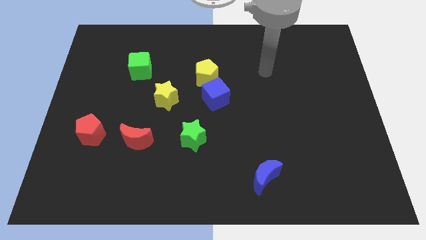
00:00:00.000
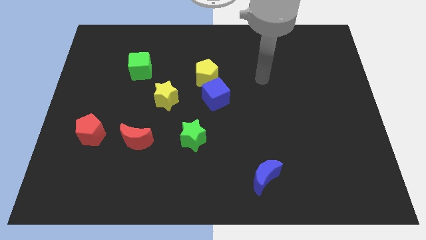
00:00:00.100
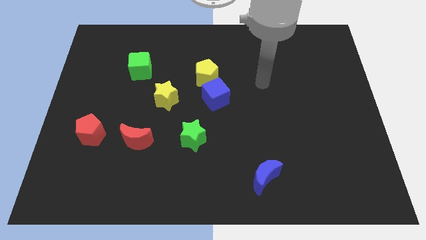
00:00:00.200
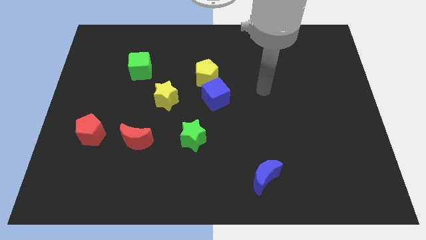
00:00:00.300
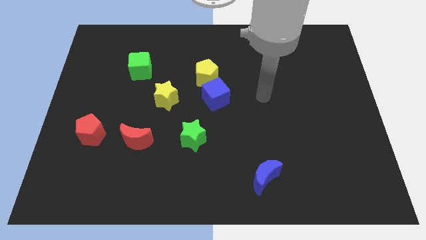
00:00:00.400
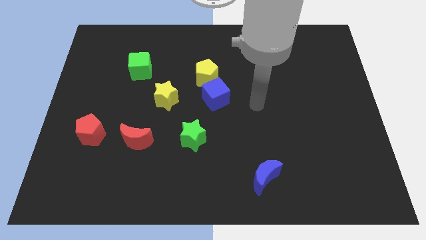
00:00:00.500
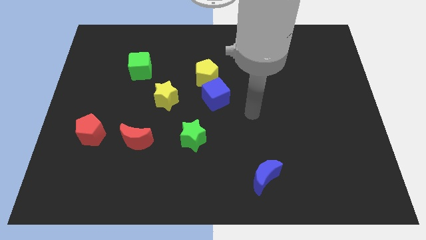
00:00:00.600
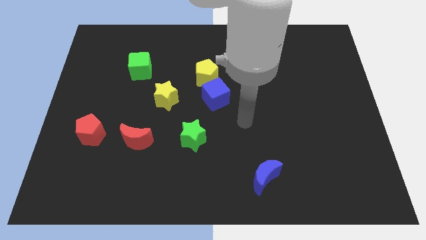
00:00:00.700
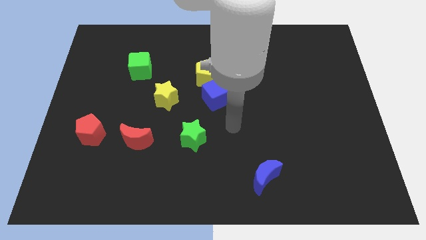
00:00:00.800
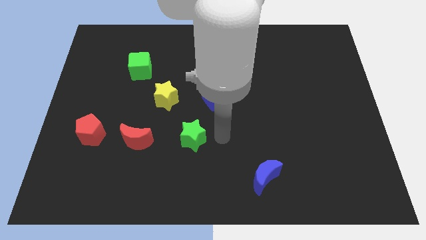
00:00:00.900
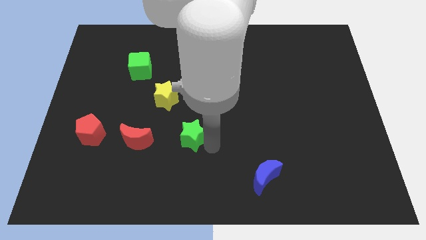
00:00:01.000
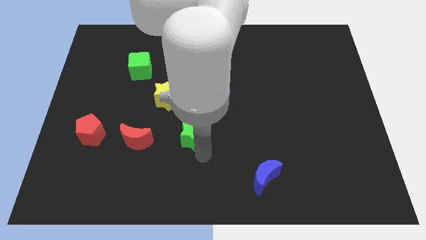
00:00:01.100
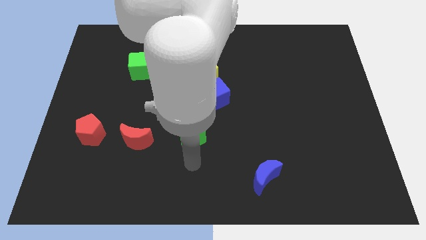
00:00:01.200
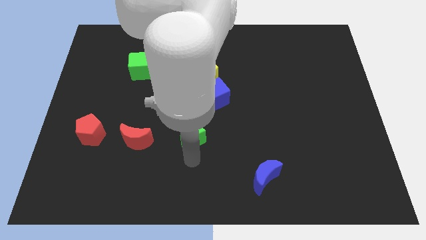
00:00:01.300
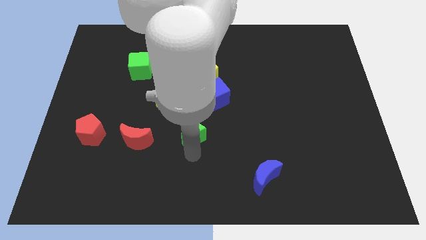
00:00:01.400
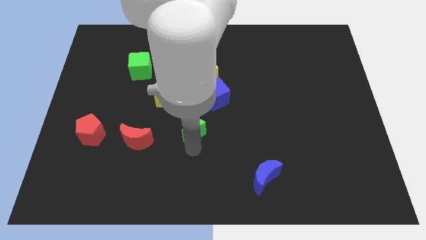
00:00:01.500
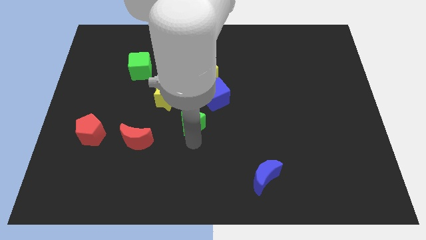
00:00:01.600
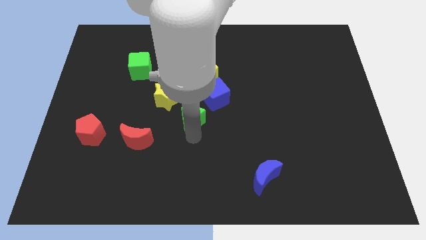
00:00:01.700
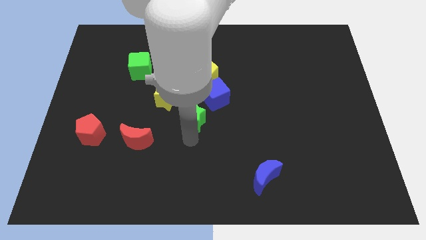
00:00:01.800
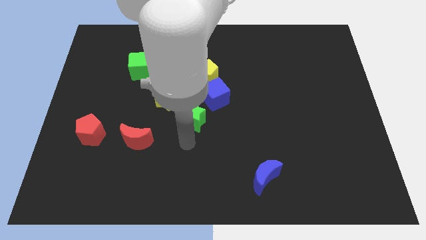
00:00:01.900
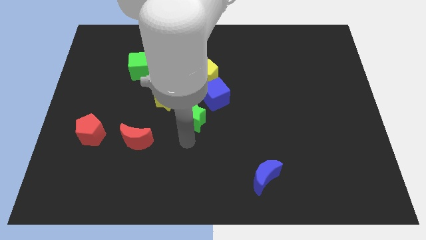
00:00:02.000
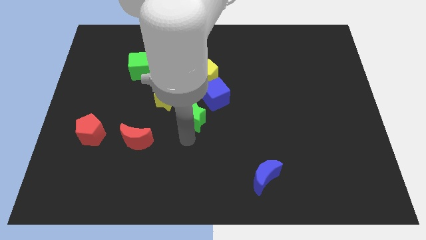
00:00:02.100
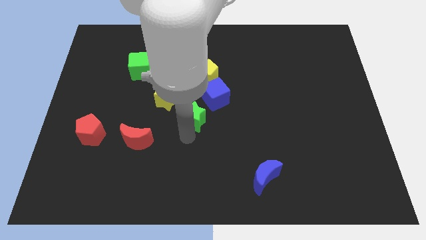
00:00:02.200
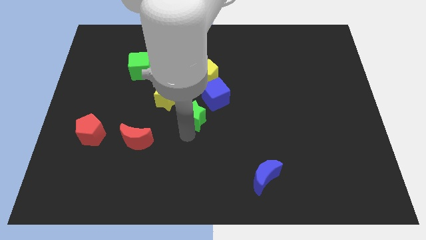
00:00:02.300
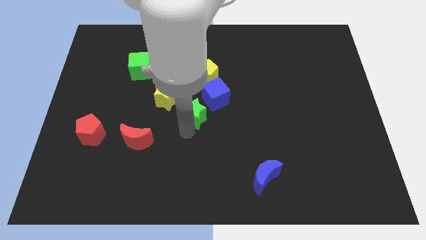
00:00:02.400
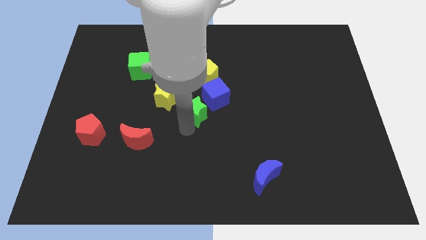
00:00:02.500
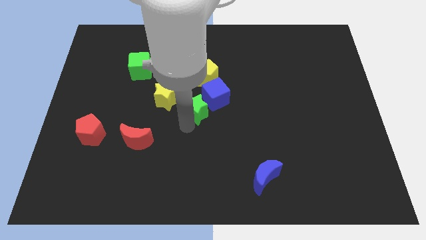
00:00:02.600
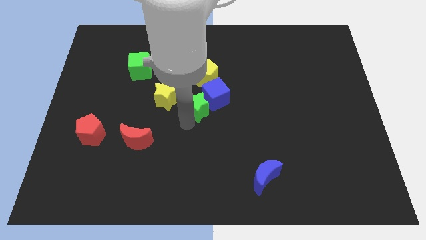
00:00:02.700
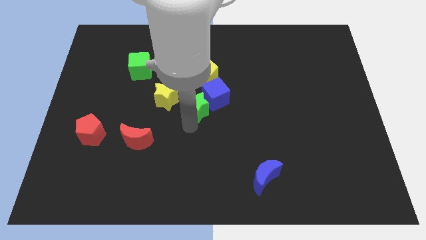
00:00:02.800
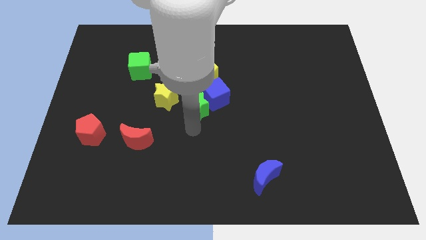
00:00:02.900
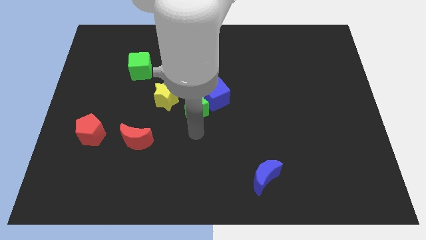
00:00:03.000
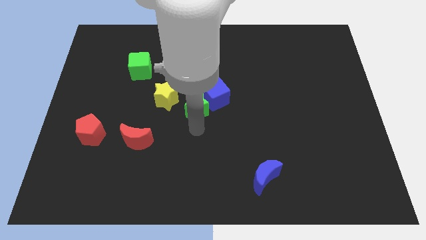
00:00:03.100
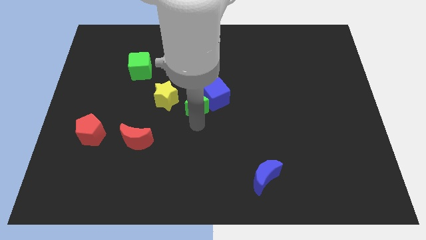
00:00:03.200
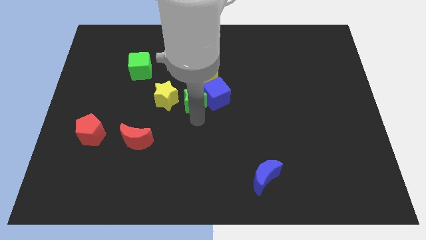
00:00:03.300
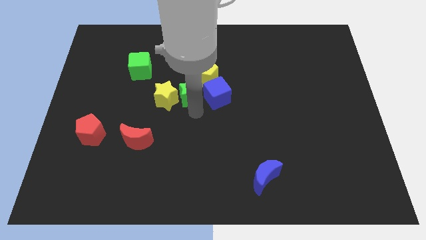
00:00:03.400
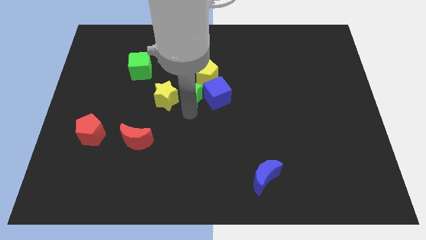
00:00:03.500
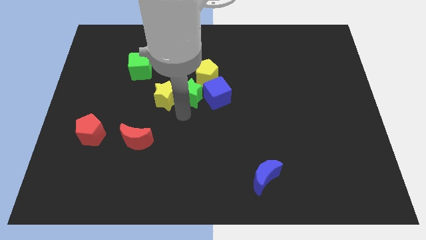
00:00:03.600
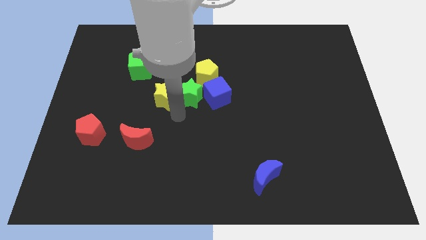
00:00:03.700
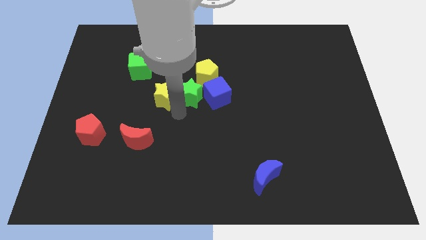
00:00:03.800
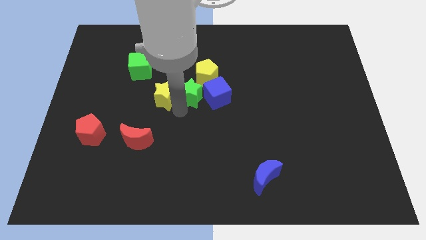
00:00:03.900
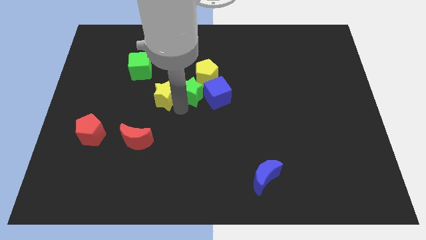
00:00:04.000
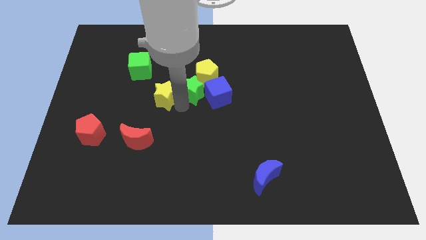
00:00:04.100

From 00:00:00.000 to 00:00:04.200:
slide the green star next to the yellow pentagon

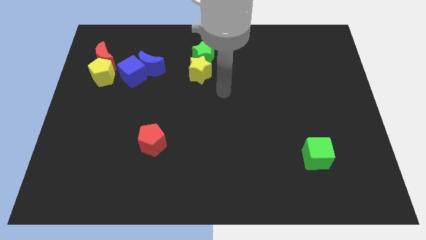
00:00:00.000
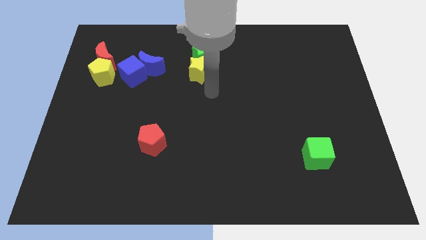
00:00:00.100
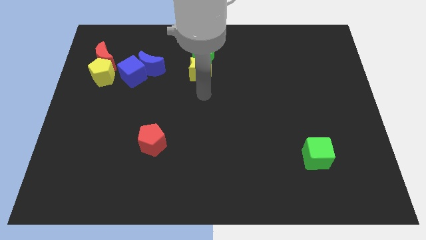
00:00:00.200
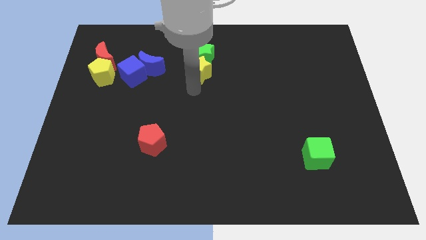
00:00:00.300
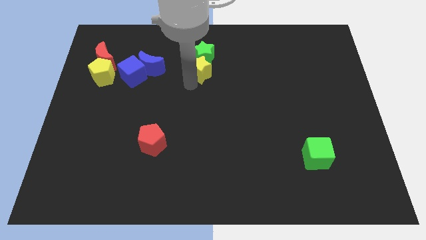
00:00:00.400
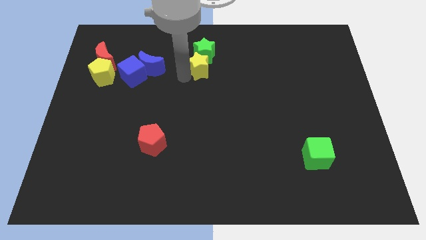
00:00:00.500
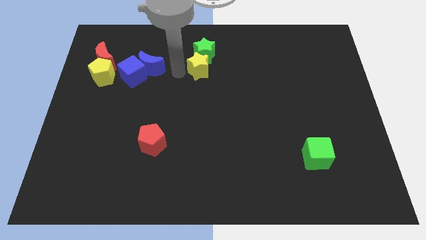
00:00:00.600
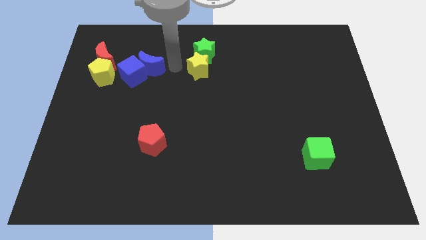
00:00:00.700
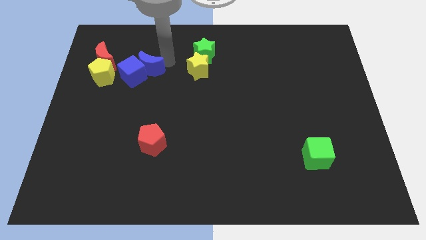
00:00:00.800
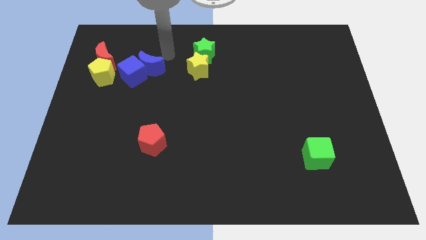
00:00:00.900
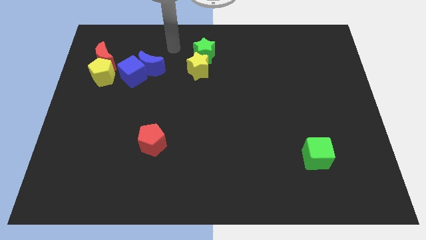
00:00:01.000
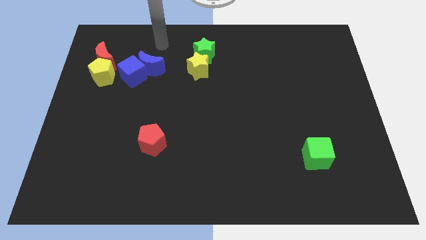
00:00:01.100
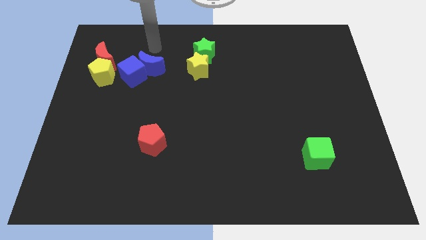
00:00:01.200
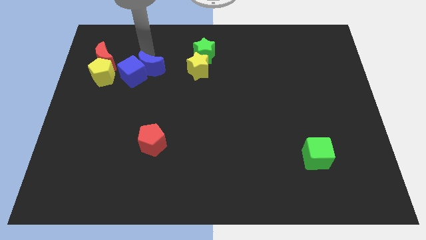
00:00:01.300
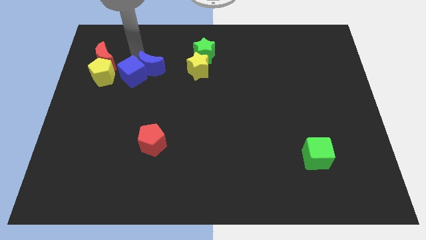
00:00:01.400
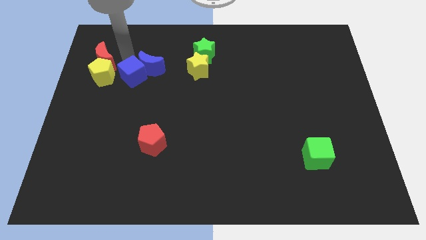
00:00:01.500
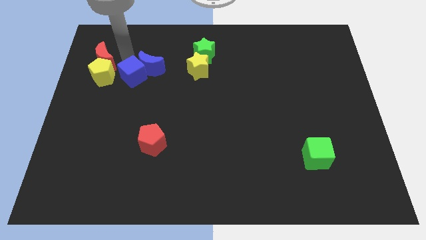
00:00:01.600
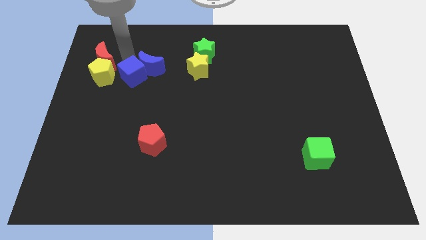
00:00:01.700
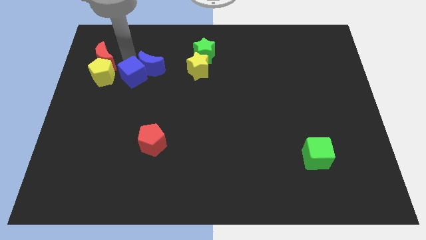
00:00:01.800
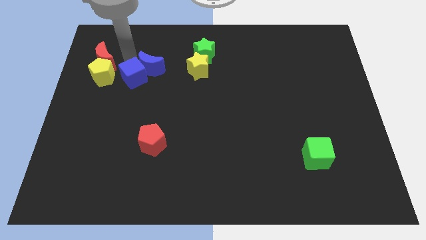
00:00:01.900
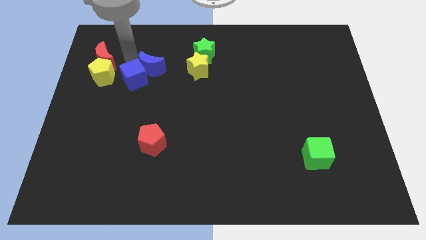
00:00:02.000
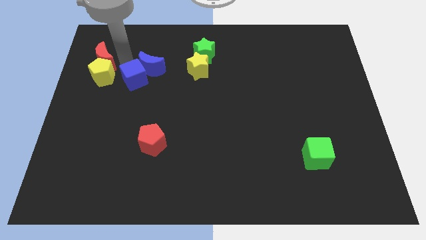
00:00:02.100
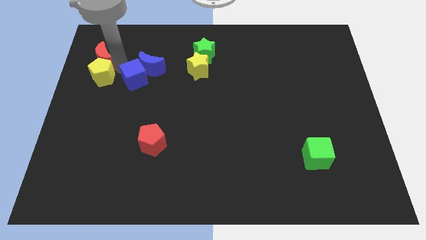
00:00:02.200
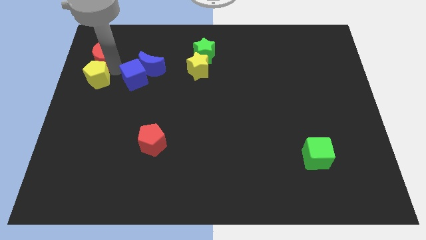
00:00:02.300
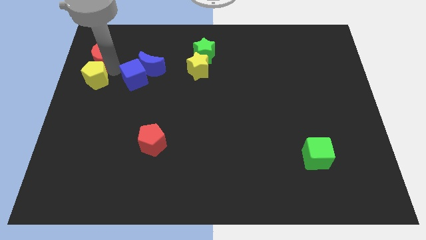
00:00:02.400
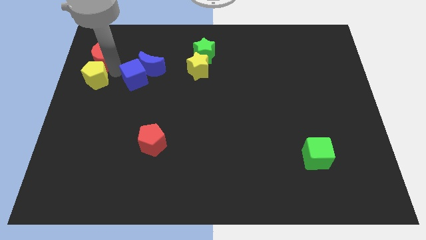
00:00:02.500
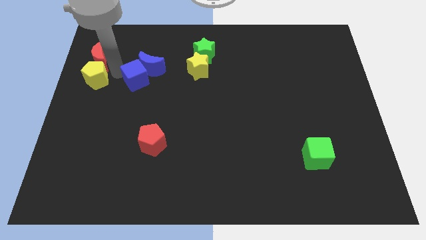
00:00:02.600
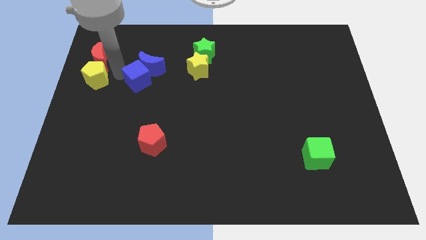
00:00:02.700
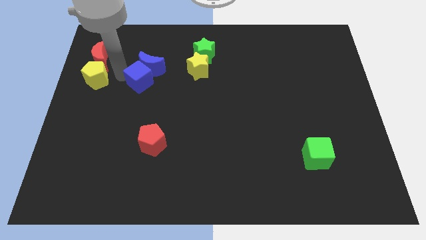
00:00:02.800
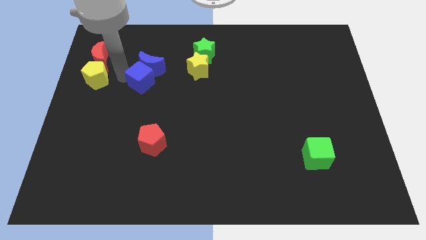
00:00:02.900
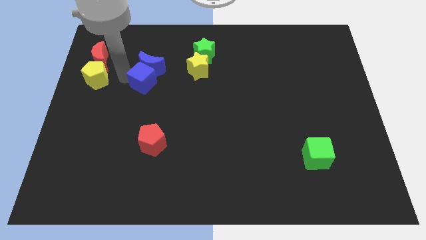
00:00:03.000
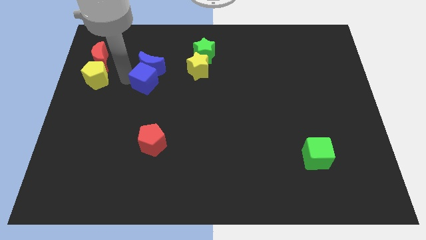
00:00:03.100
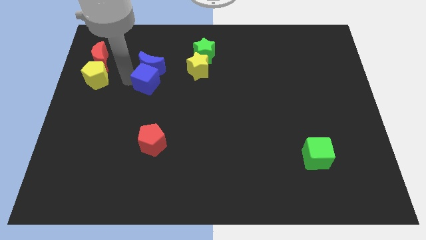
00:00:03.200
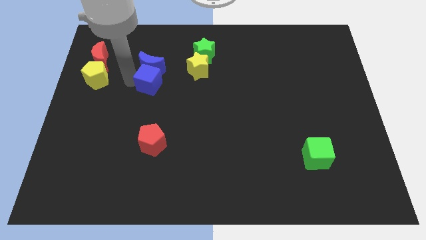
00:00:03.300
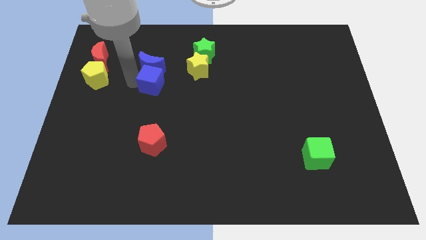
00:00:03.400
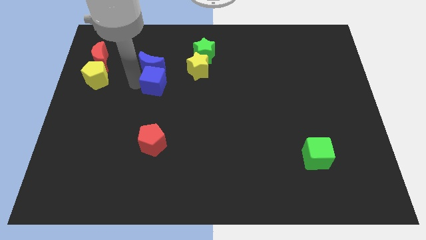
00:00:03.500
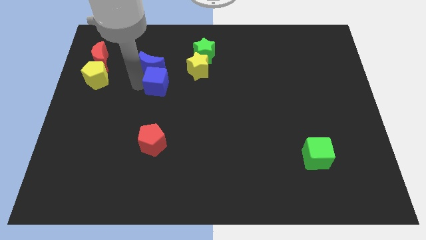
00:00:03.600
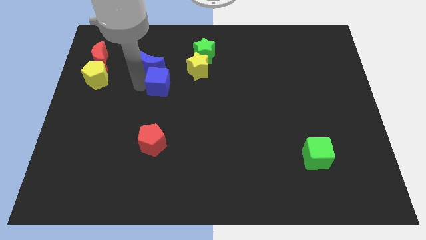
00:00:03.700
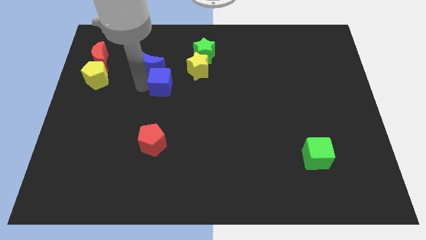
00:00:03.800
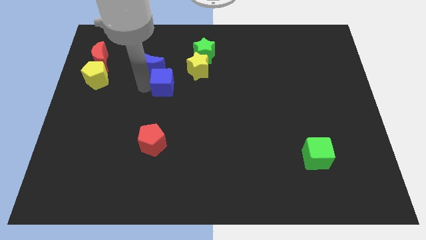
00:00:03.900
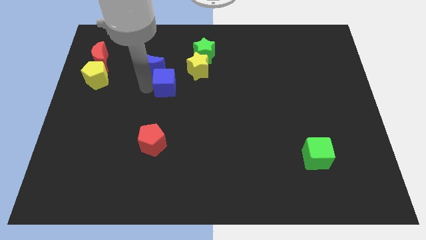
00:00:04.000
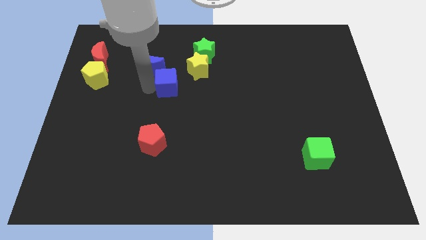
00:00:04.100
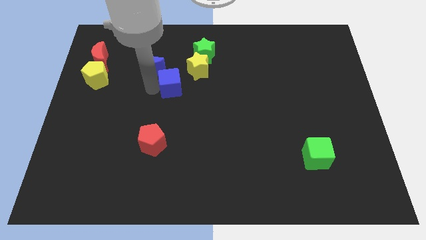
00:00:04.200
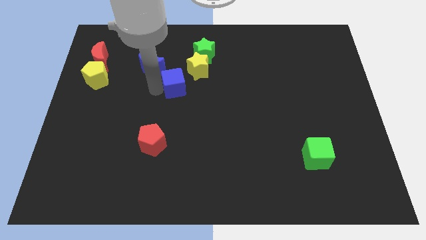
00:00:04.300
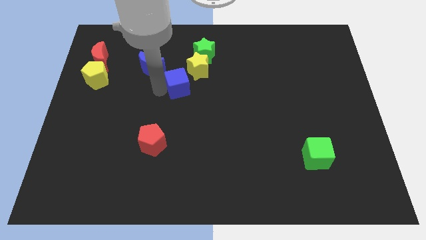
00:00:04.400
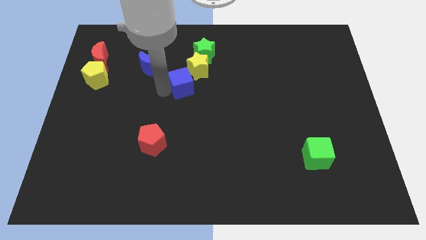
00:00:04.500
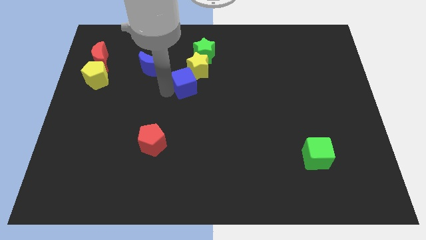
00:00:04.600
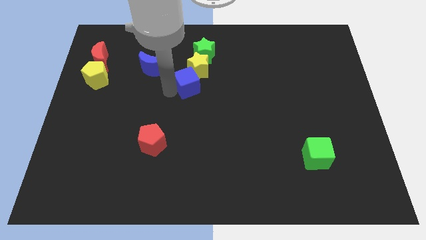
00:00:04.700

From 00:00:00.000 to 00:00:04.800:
slide the blue cube to the yellow star
